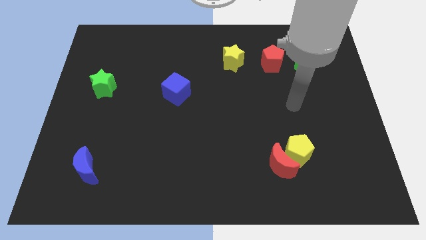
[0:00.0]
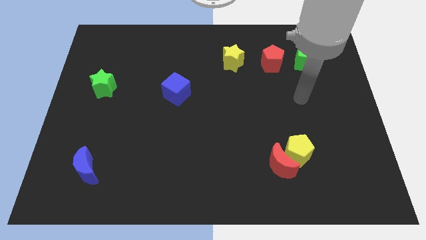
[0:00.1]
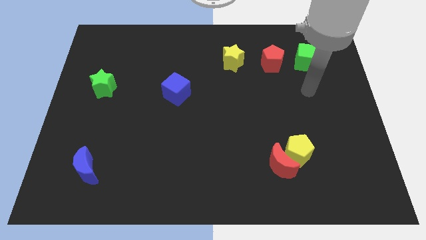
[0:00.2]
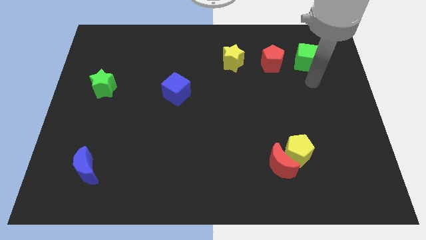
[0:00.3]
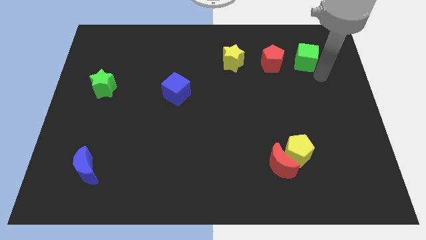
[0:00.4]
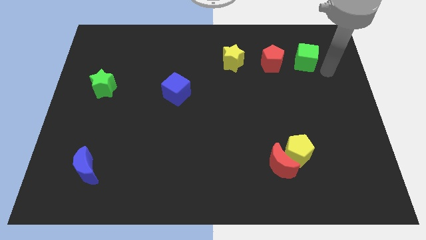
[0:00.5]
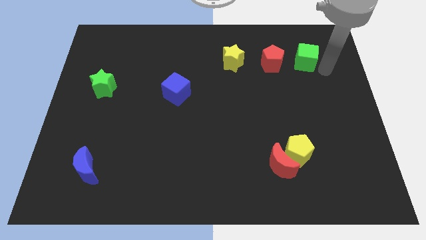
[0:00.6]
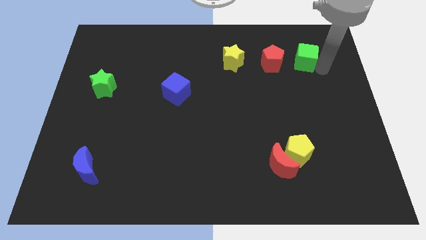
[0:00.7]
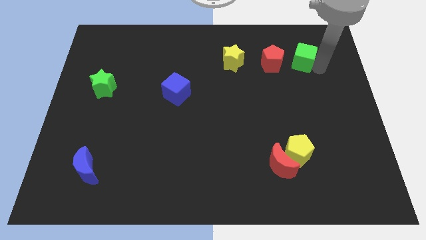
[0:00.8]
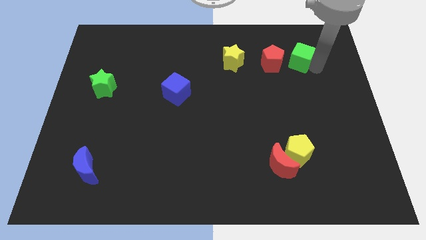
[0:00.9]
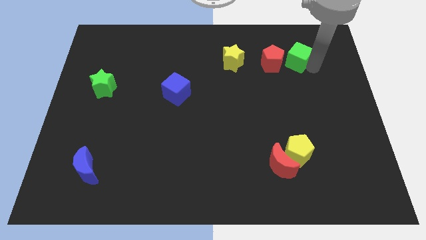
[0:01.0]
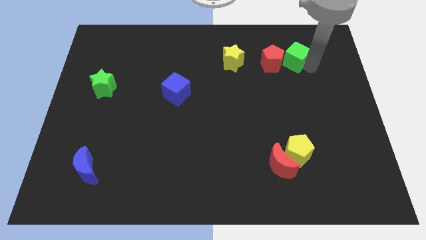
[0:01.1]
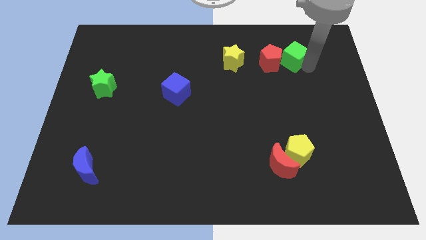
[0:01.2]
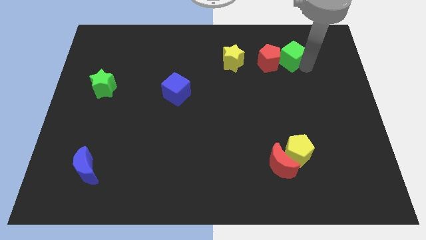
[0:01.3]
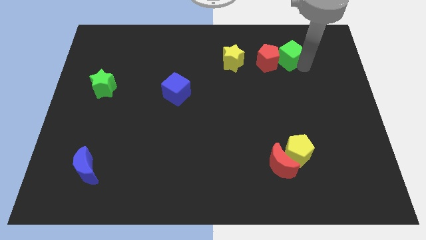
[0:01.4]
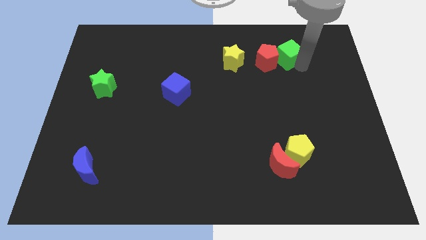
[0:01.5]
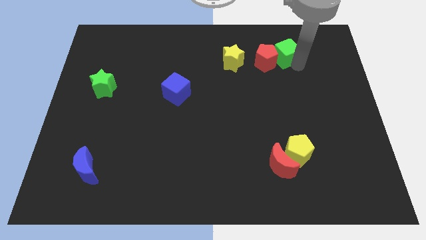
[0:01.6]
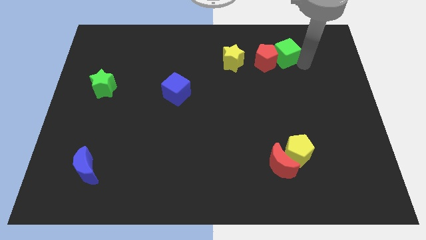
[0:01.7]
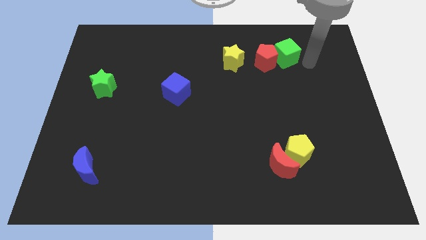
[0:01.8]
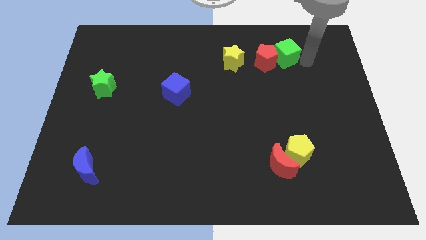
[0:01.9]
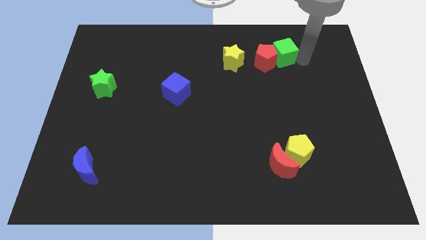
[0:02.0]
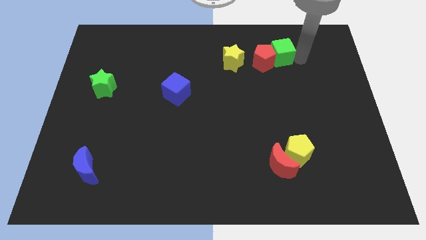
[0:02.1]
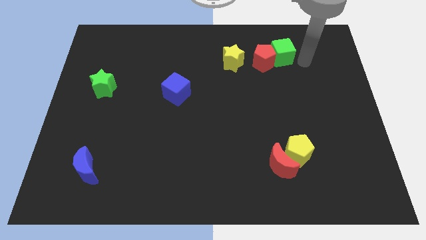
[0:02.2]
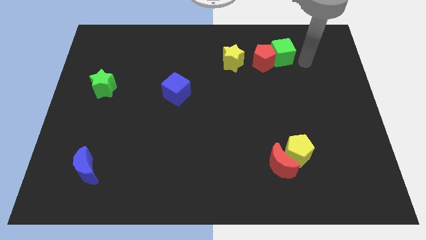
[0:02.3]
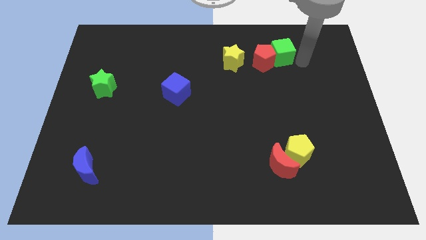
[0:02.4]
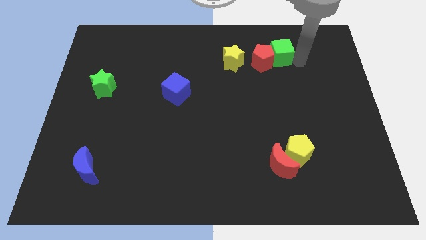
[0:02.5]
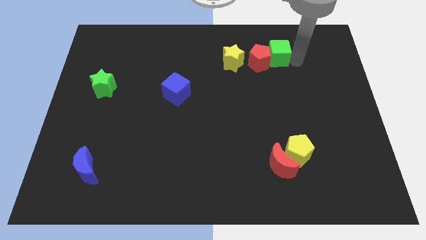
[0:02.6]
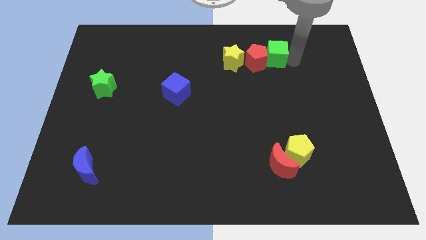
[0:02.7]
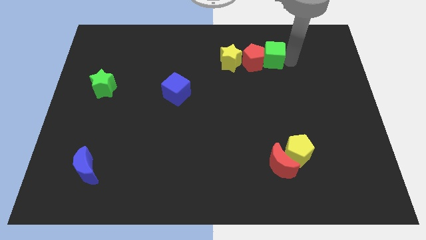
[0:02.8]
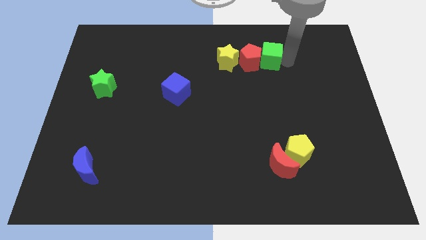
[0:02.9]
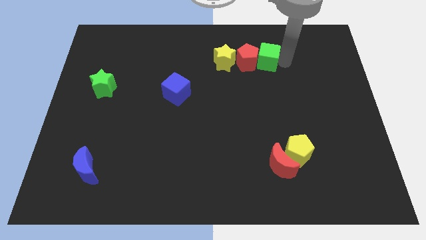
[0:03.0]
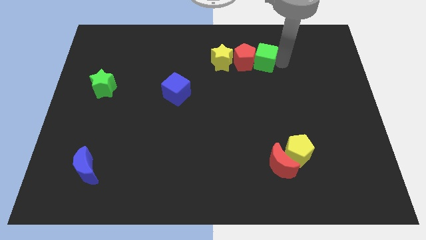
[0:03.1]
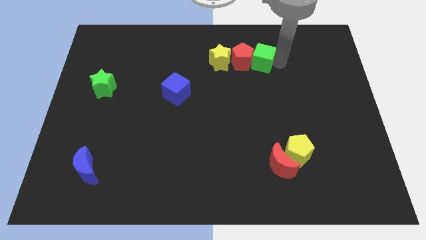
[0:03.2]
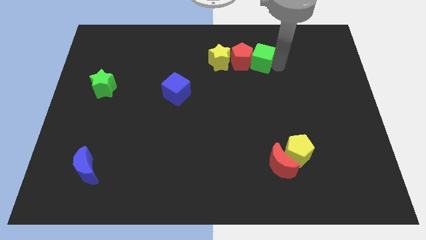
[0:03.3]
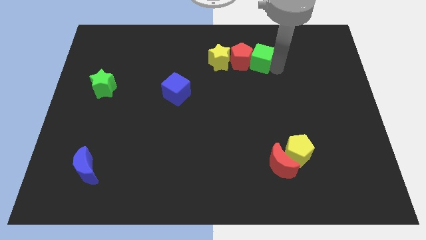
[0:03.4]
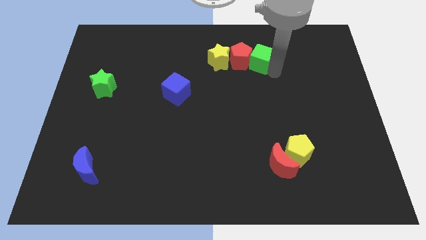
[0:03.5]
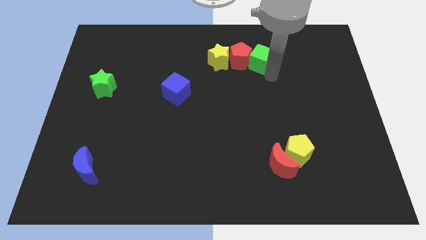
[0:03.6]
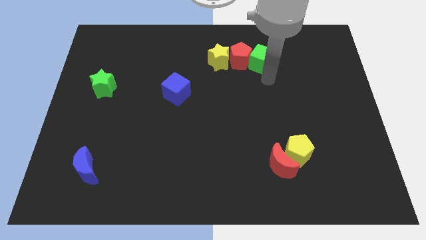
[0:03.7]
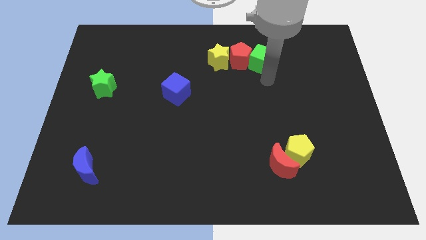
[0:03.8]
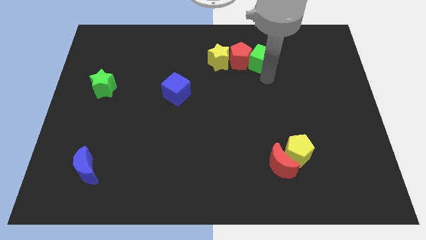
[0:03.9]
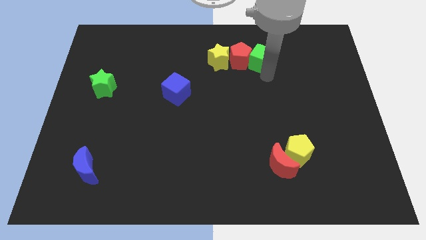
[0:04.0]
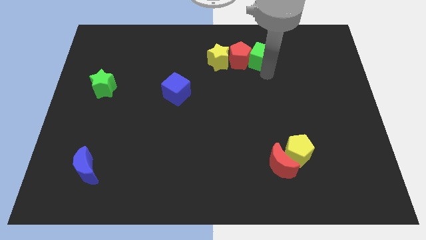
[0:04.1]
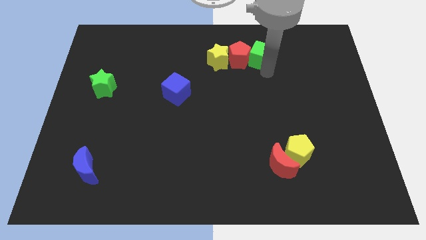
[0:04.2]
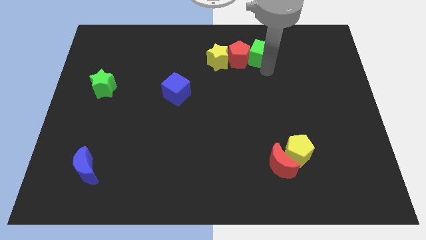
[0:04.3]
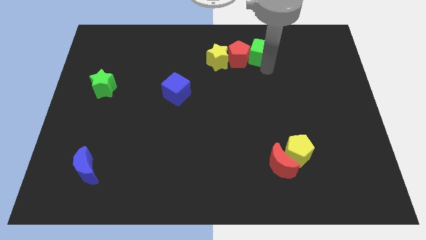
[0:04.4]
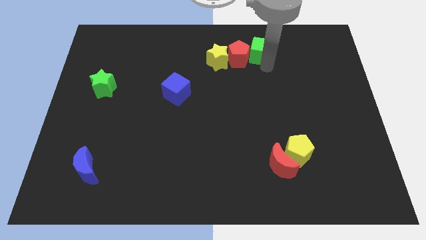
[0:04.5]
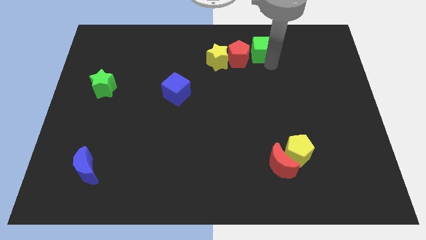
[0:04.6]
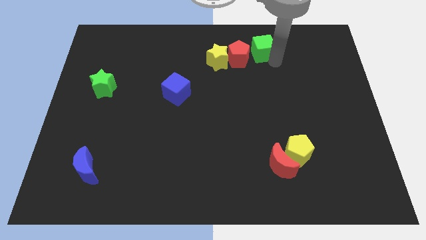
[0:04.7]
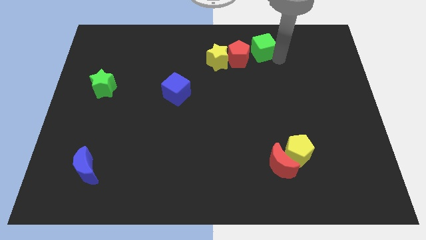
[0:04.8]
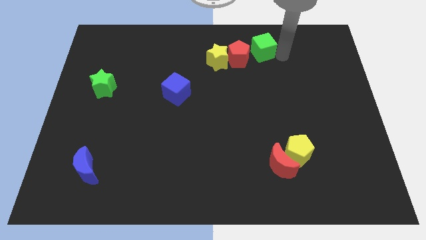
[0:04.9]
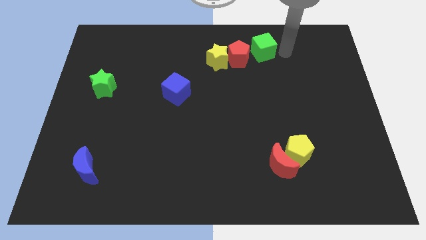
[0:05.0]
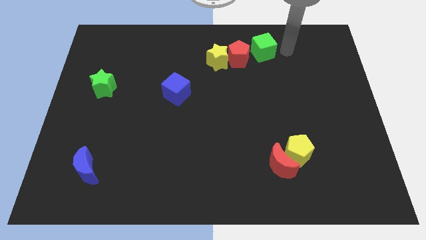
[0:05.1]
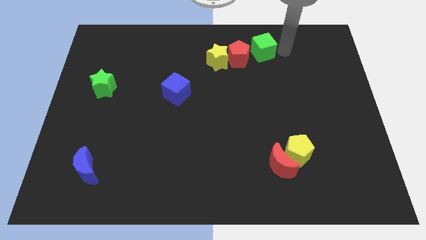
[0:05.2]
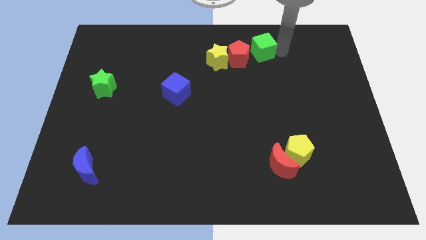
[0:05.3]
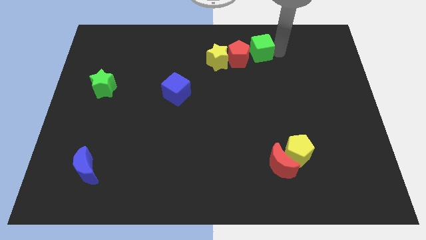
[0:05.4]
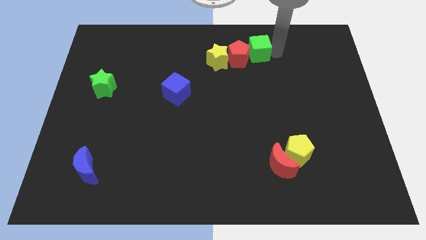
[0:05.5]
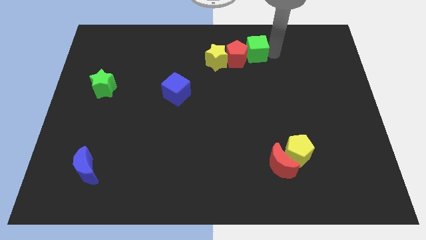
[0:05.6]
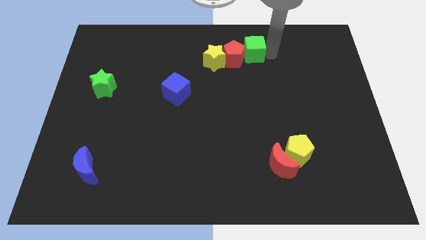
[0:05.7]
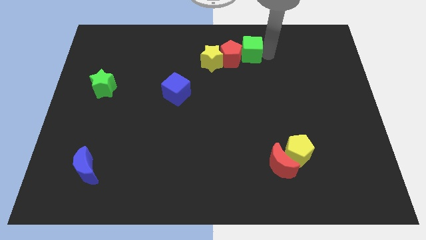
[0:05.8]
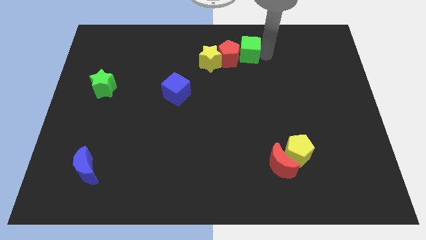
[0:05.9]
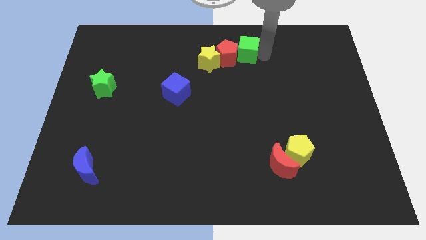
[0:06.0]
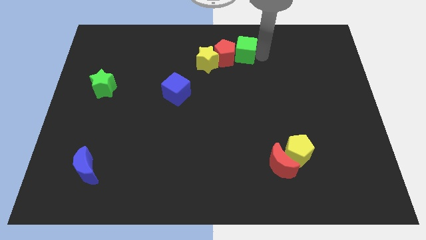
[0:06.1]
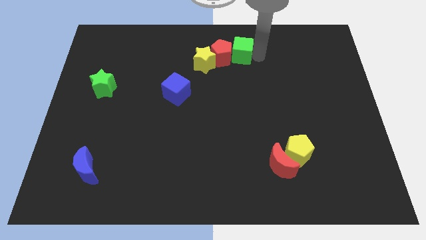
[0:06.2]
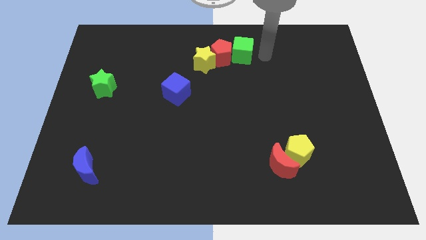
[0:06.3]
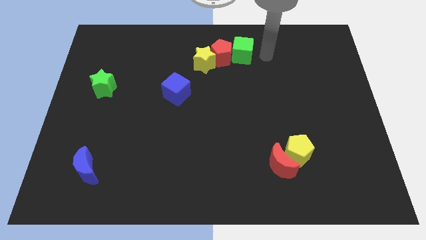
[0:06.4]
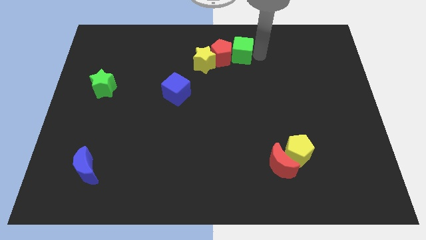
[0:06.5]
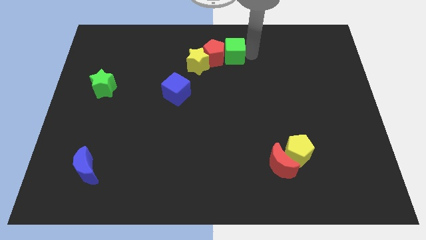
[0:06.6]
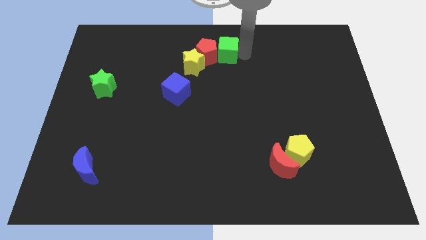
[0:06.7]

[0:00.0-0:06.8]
move the green cube to the left

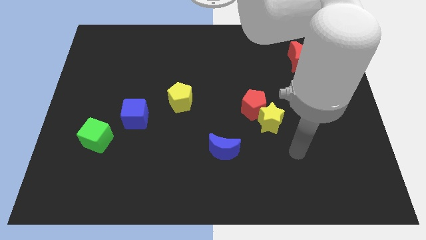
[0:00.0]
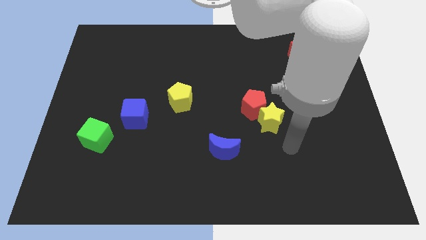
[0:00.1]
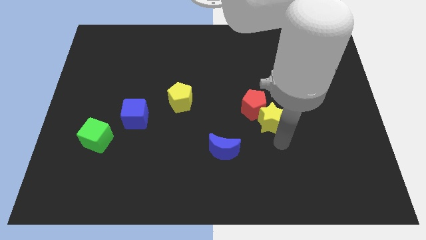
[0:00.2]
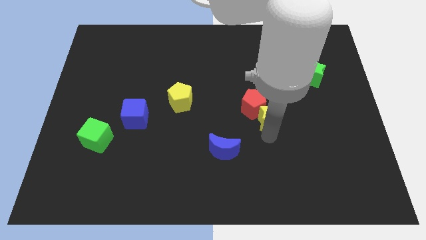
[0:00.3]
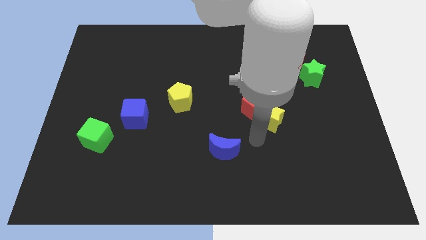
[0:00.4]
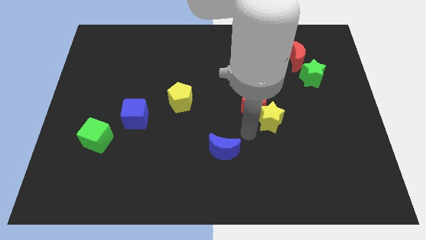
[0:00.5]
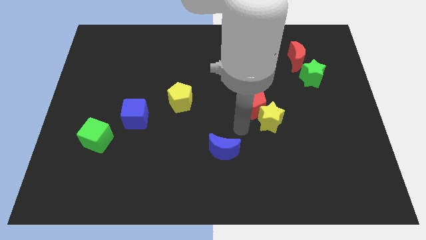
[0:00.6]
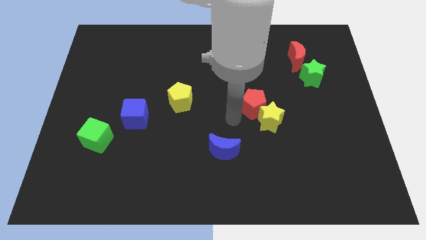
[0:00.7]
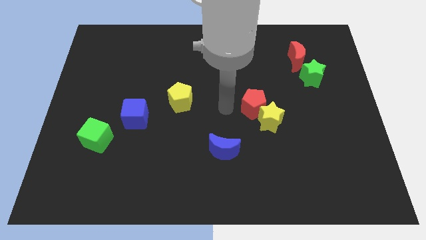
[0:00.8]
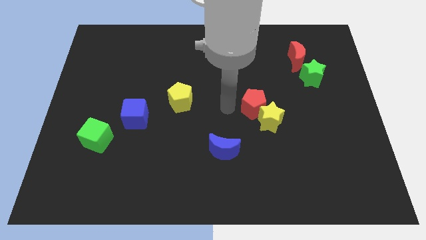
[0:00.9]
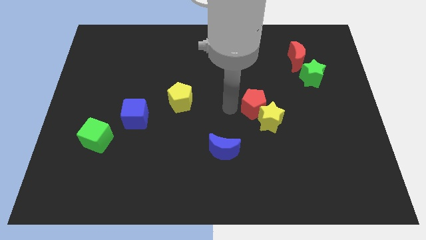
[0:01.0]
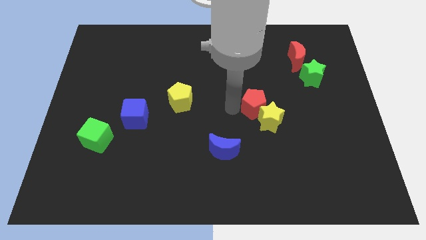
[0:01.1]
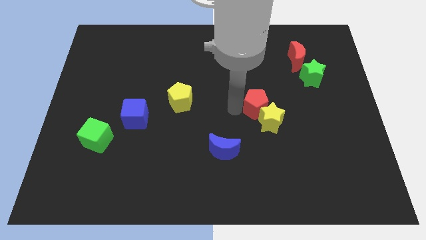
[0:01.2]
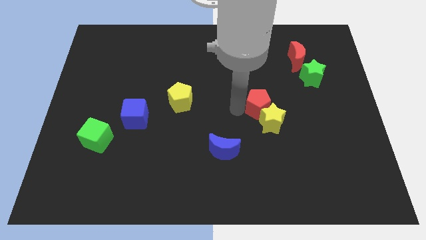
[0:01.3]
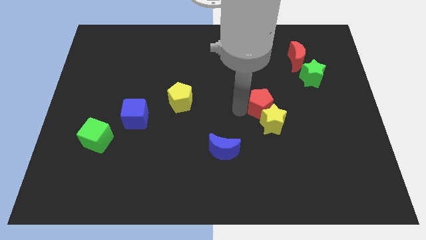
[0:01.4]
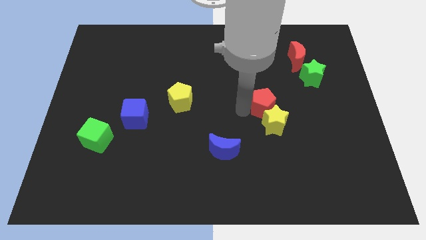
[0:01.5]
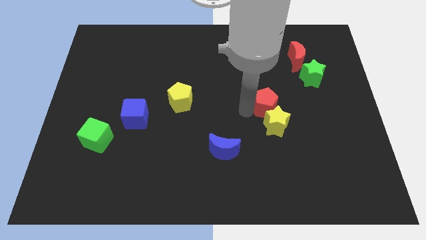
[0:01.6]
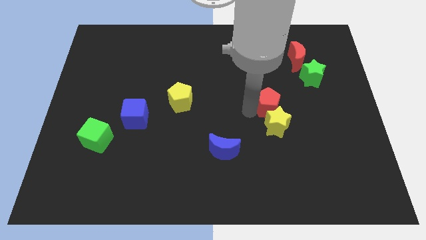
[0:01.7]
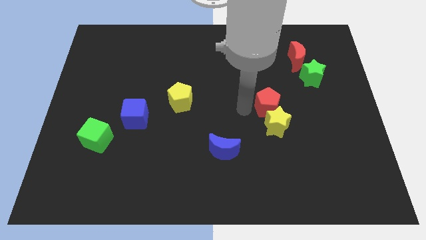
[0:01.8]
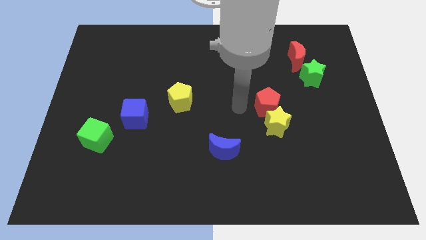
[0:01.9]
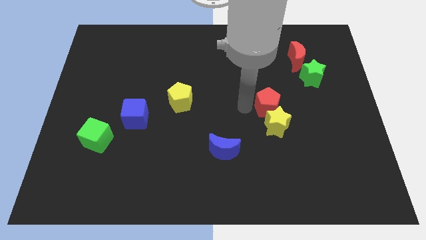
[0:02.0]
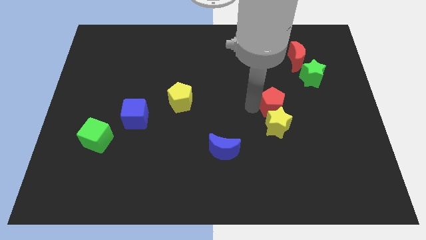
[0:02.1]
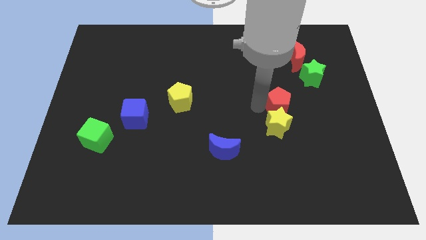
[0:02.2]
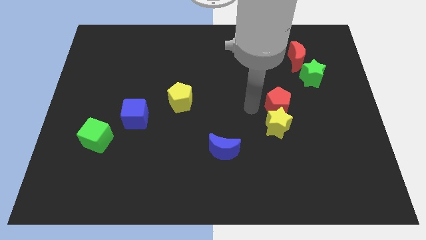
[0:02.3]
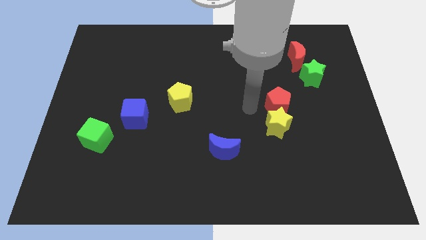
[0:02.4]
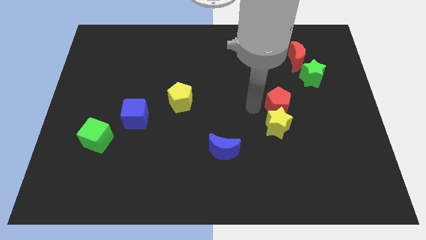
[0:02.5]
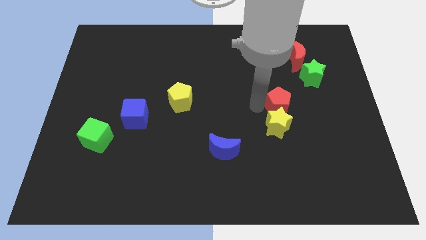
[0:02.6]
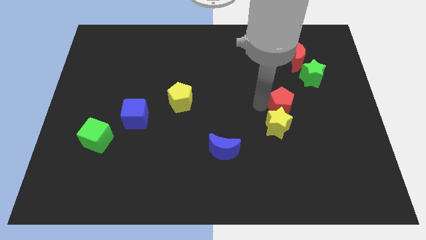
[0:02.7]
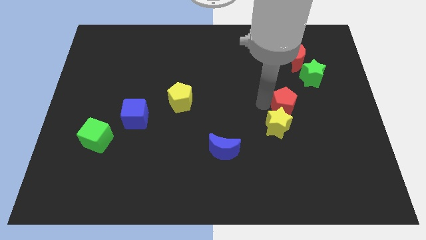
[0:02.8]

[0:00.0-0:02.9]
slightly push the red pentagon to the right
